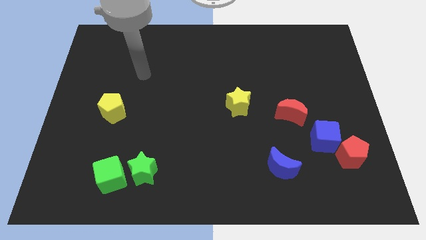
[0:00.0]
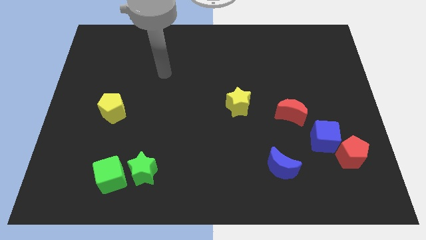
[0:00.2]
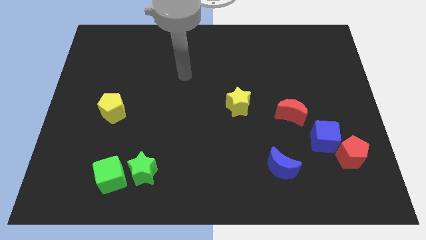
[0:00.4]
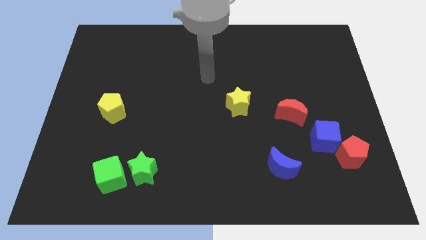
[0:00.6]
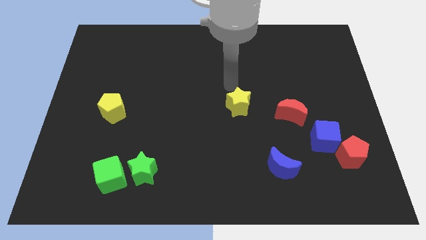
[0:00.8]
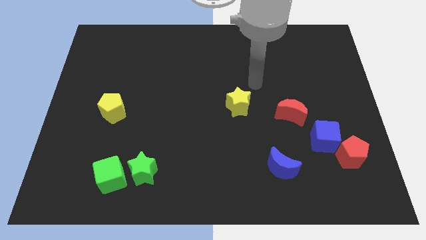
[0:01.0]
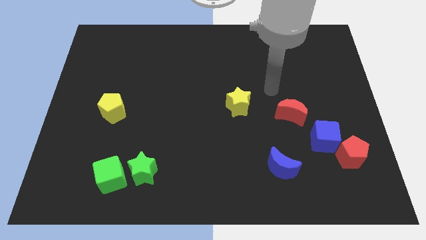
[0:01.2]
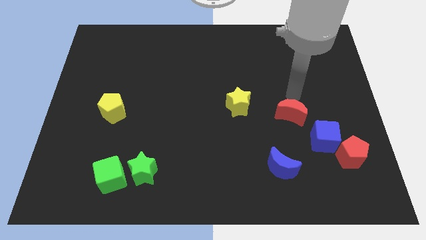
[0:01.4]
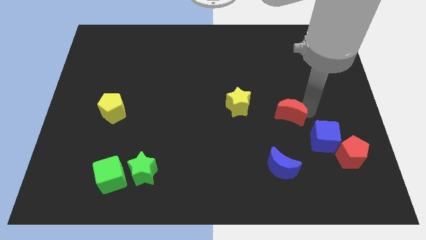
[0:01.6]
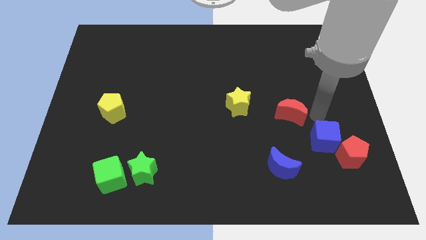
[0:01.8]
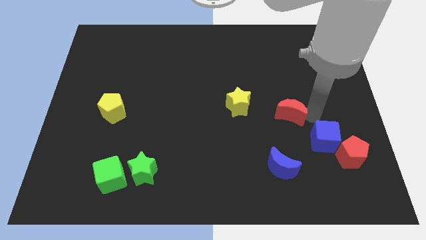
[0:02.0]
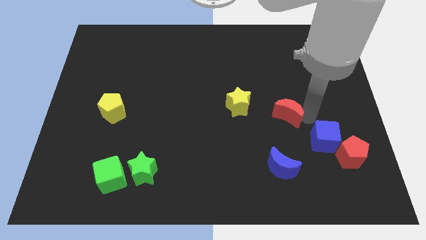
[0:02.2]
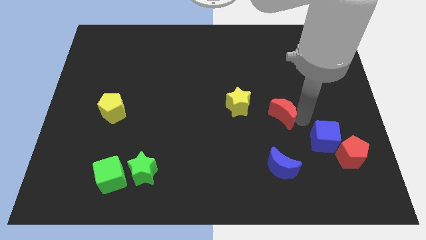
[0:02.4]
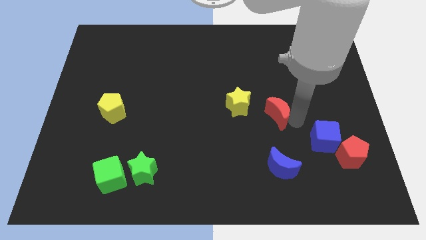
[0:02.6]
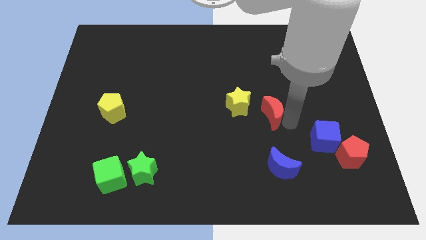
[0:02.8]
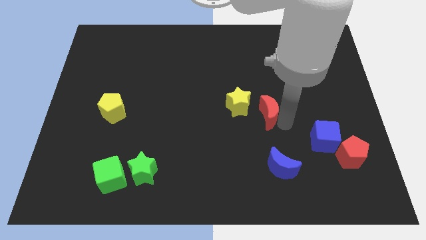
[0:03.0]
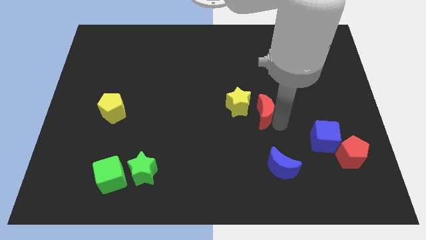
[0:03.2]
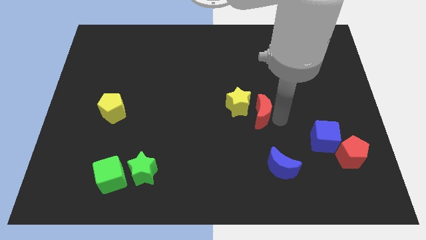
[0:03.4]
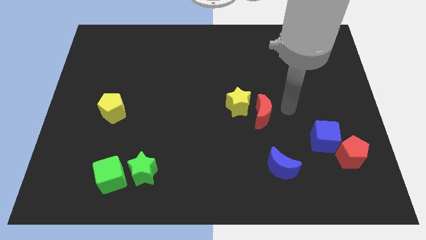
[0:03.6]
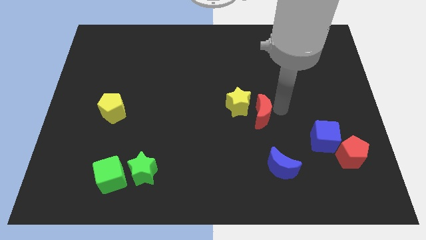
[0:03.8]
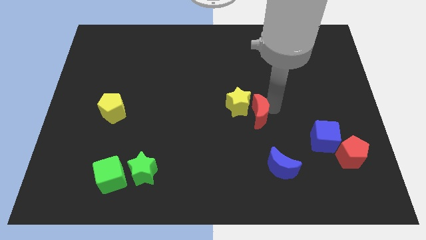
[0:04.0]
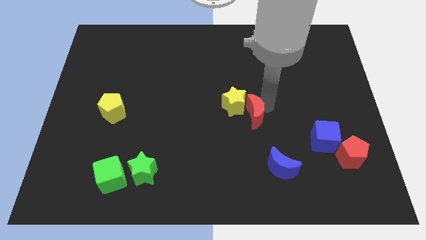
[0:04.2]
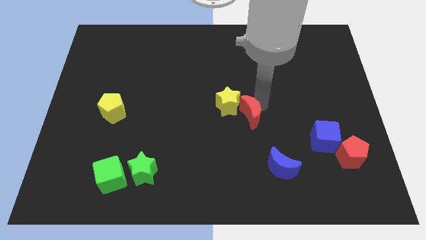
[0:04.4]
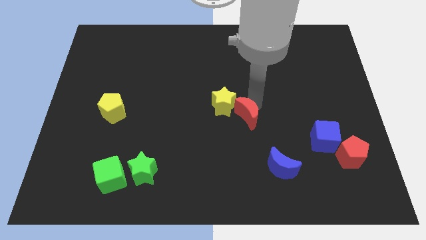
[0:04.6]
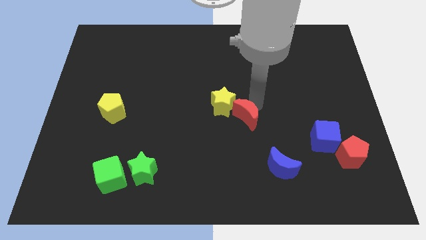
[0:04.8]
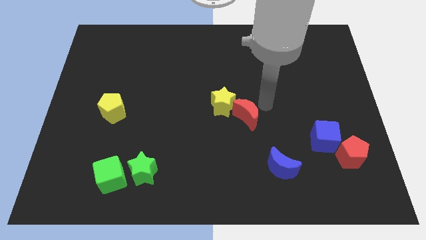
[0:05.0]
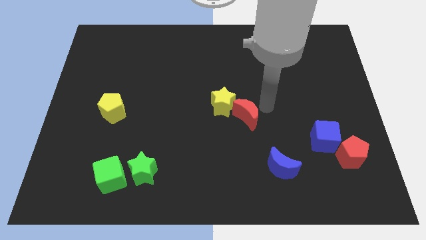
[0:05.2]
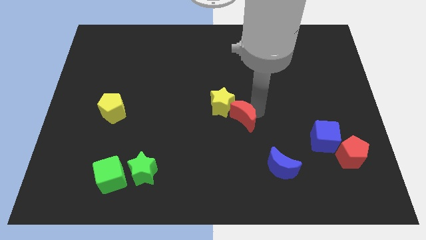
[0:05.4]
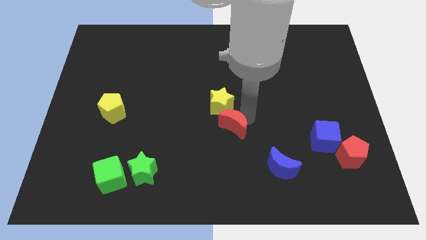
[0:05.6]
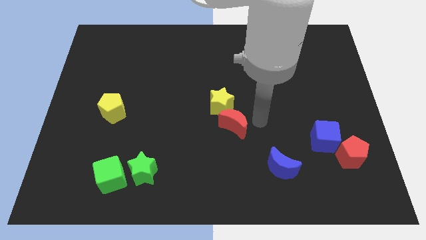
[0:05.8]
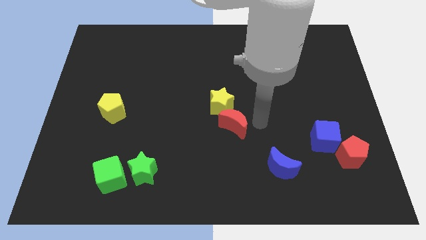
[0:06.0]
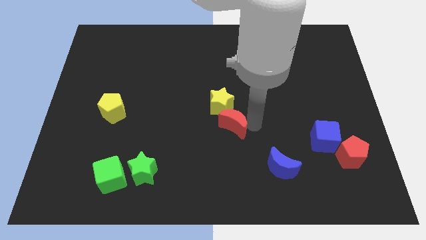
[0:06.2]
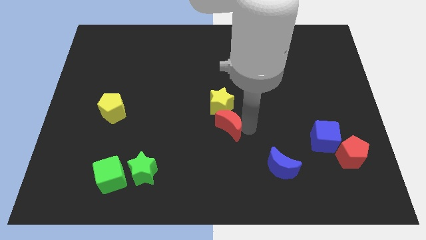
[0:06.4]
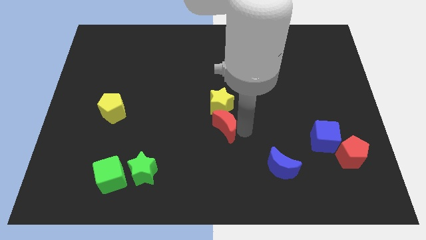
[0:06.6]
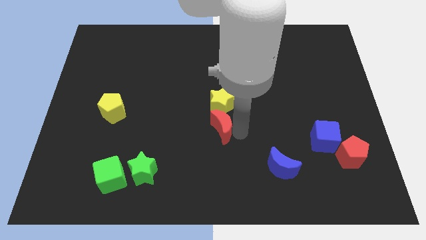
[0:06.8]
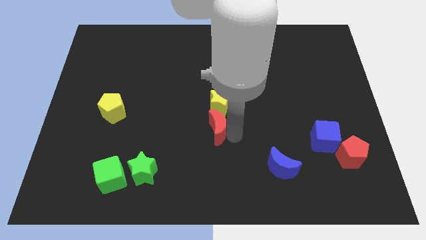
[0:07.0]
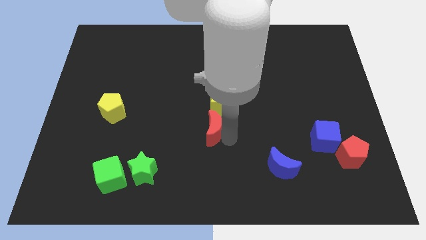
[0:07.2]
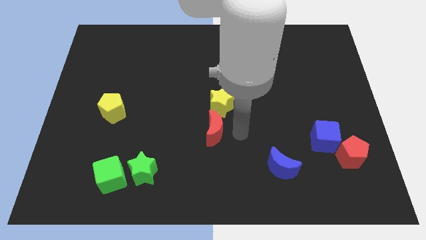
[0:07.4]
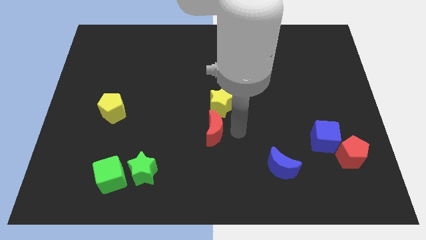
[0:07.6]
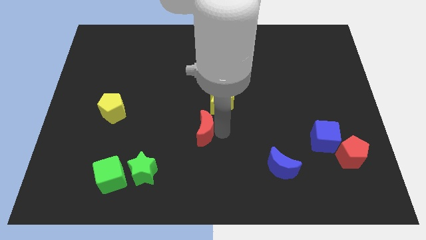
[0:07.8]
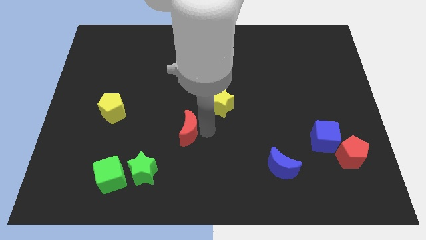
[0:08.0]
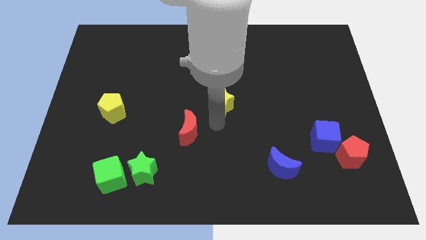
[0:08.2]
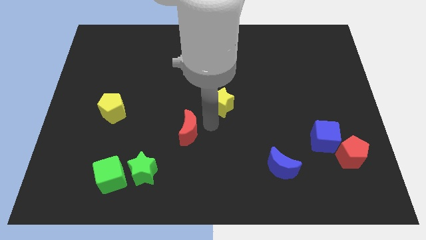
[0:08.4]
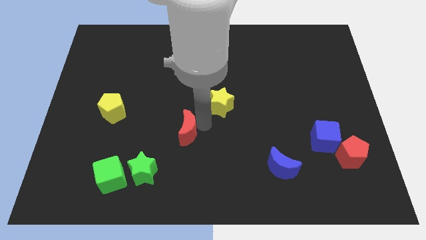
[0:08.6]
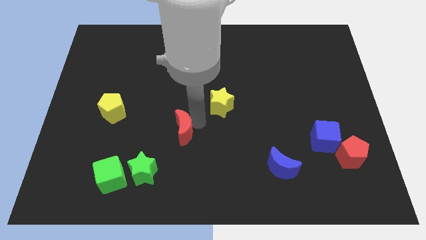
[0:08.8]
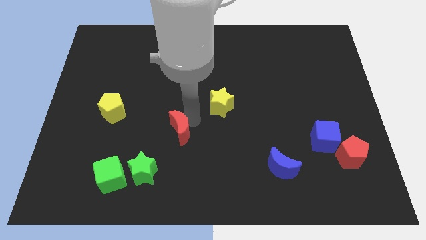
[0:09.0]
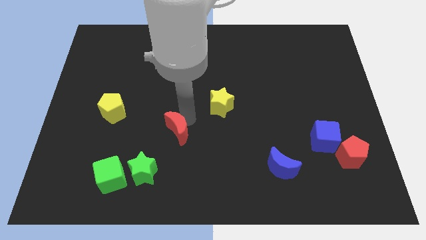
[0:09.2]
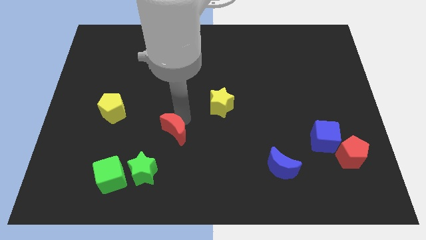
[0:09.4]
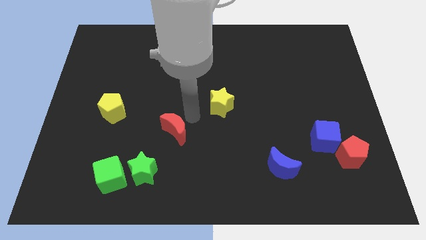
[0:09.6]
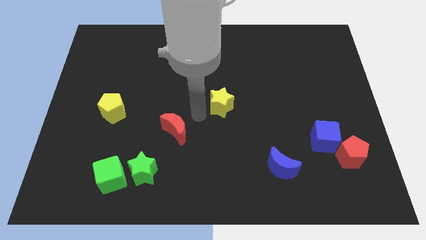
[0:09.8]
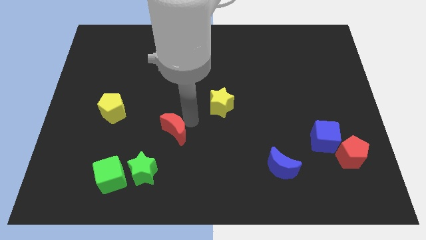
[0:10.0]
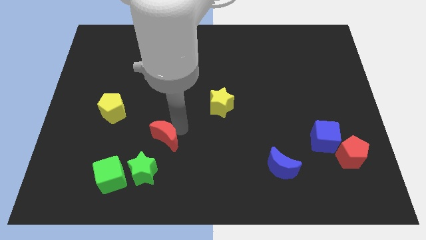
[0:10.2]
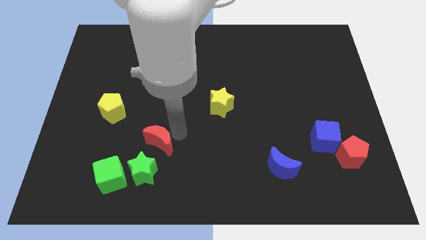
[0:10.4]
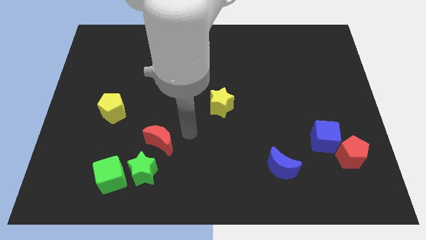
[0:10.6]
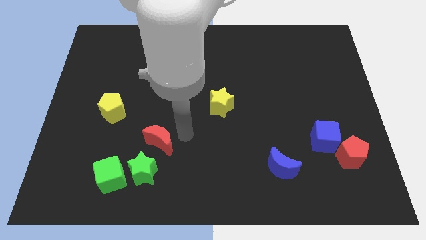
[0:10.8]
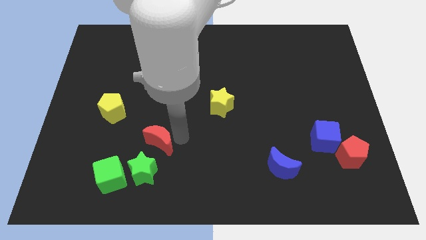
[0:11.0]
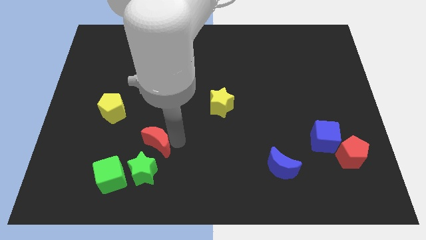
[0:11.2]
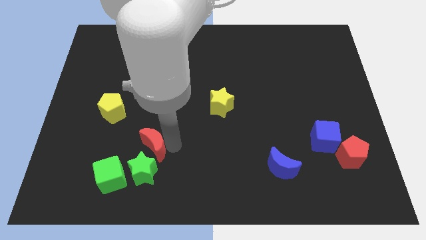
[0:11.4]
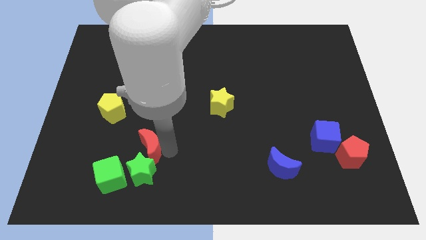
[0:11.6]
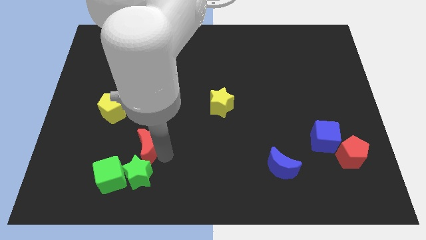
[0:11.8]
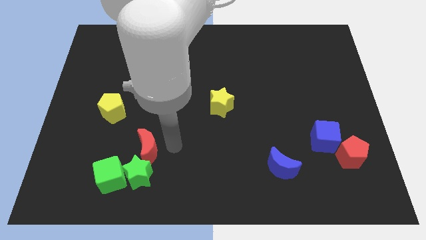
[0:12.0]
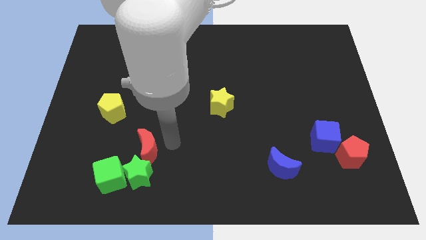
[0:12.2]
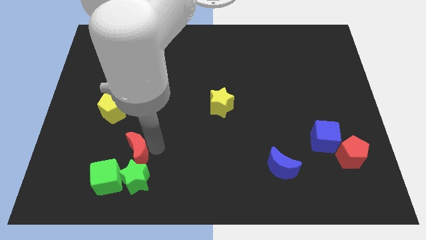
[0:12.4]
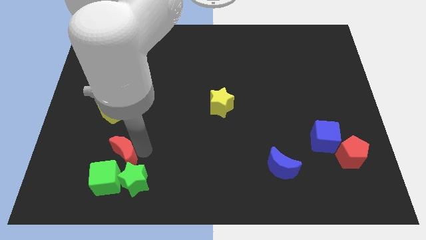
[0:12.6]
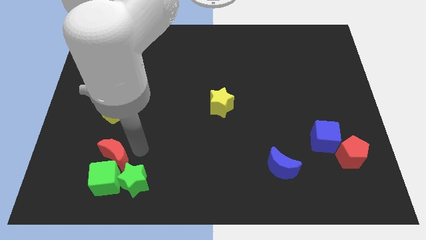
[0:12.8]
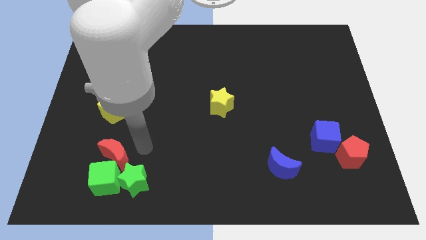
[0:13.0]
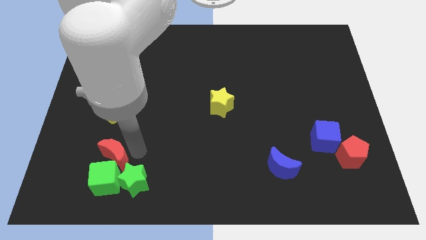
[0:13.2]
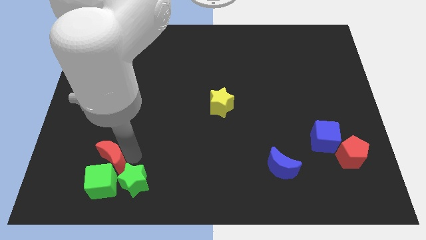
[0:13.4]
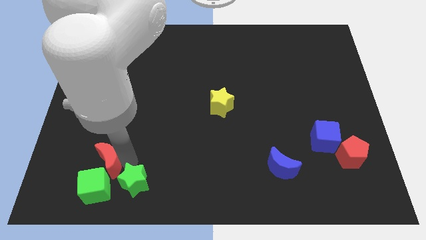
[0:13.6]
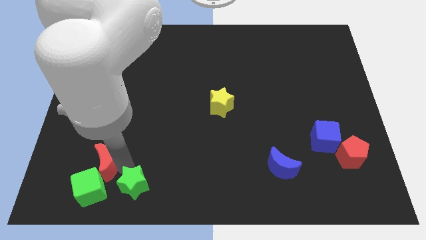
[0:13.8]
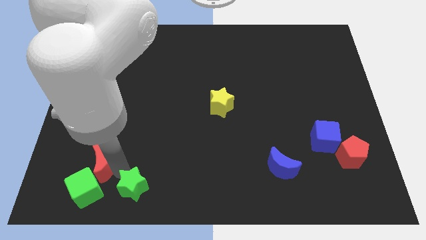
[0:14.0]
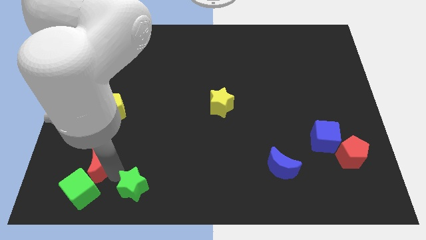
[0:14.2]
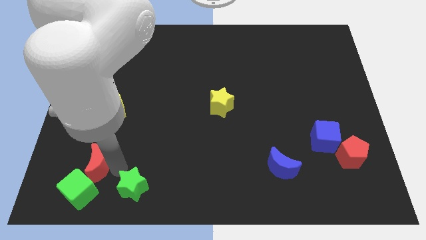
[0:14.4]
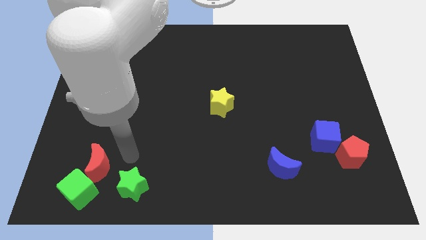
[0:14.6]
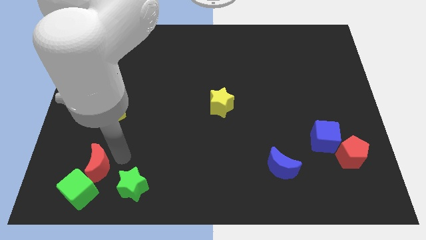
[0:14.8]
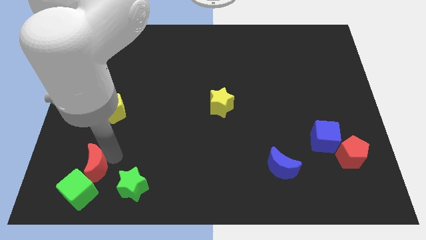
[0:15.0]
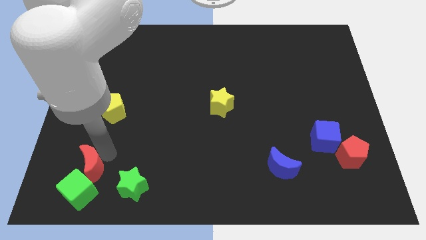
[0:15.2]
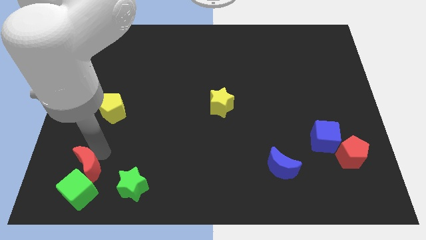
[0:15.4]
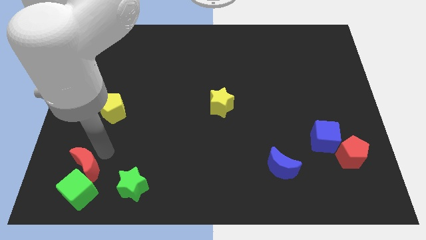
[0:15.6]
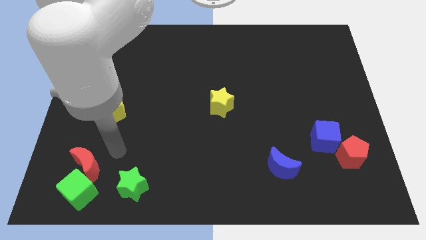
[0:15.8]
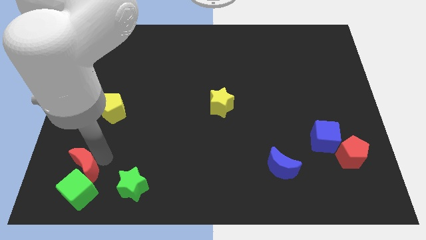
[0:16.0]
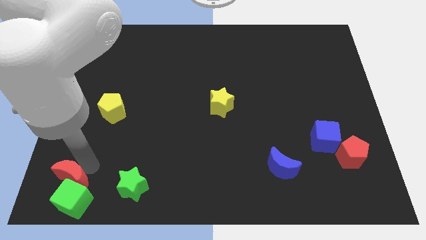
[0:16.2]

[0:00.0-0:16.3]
slide the red moon to the bottom left
